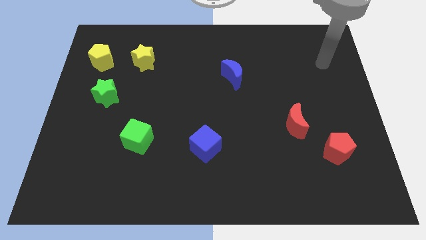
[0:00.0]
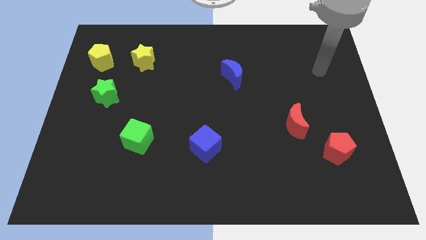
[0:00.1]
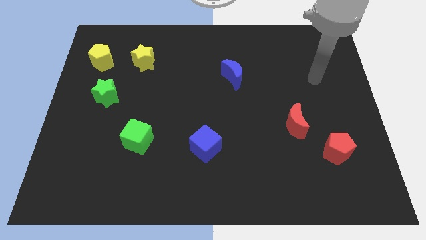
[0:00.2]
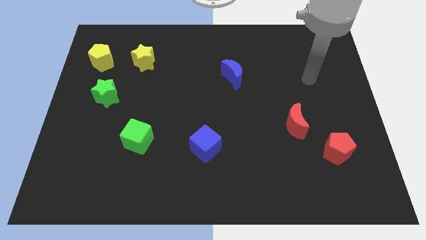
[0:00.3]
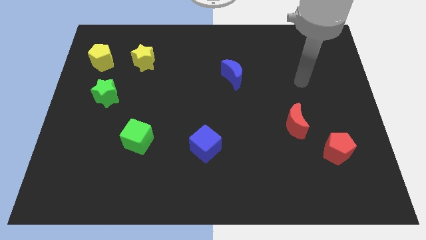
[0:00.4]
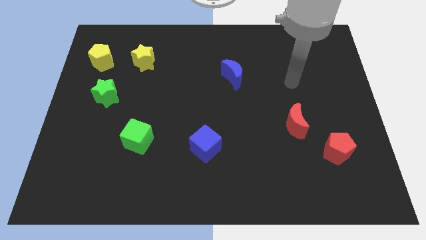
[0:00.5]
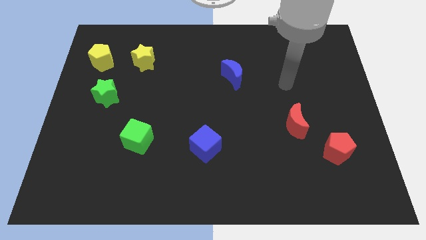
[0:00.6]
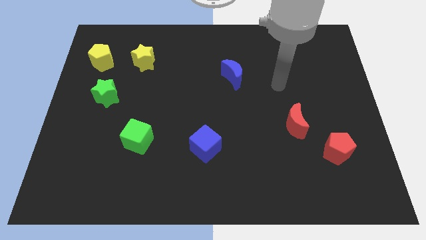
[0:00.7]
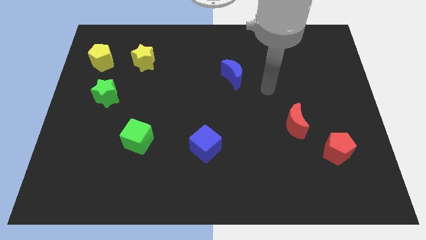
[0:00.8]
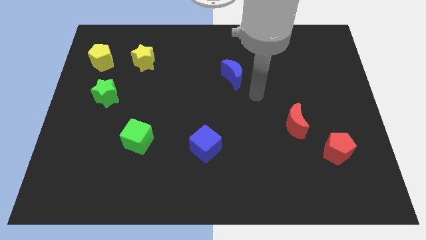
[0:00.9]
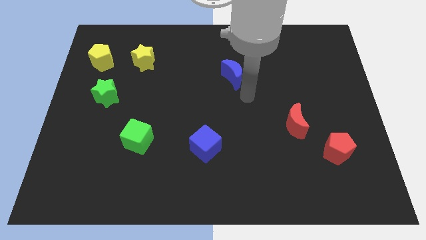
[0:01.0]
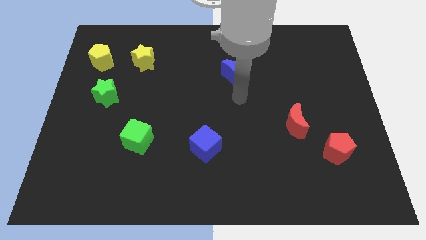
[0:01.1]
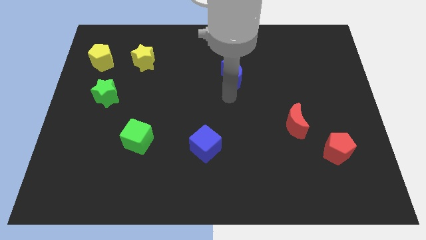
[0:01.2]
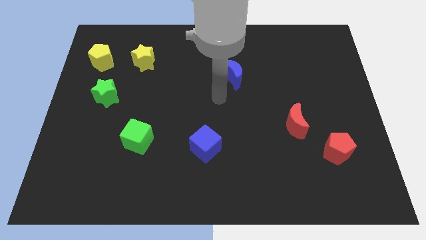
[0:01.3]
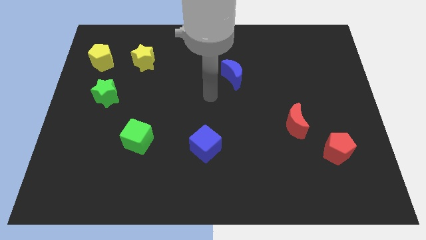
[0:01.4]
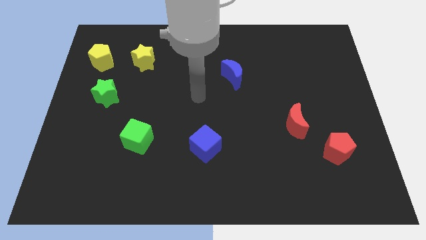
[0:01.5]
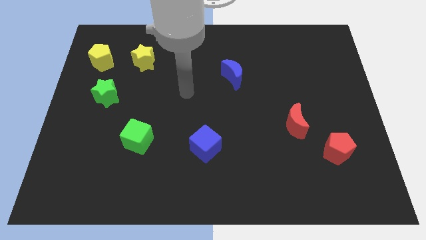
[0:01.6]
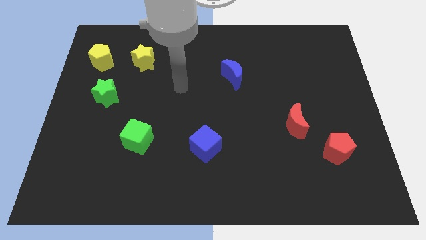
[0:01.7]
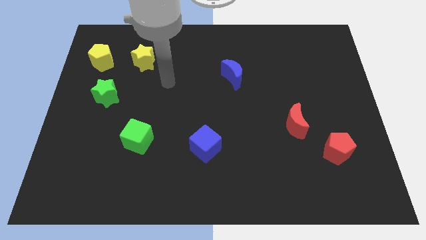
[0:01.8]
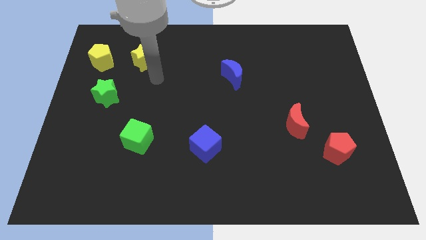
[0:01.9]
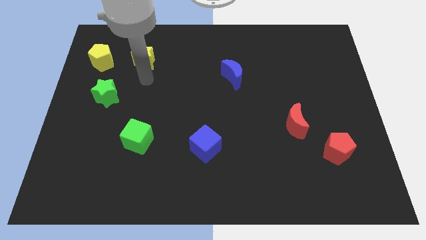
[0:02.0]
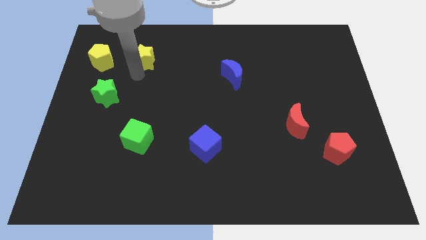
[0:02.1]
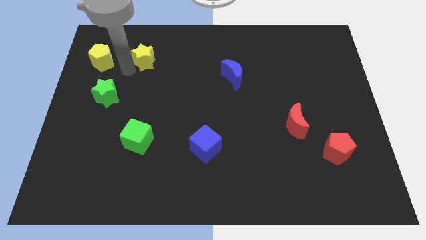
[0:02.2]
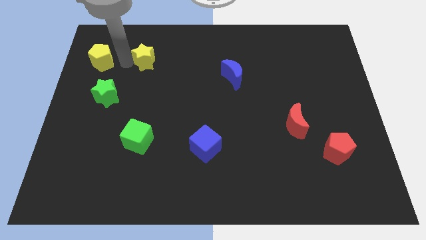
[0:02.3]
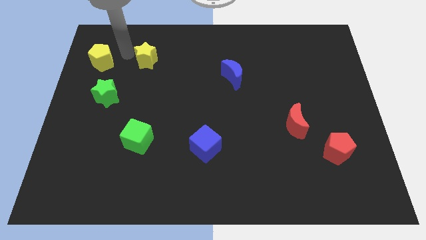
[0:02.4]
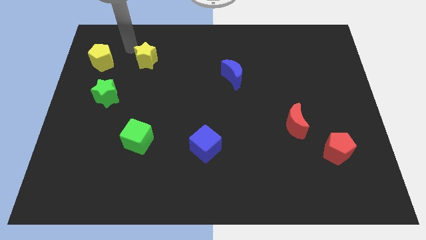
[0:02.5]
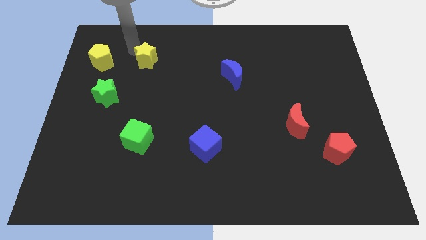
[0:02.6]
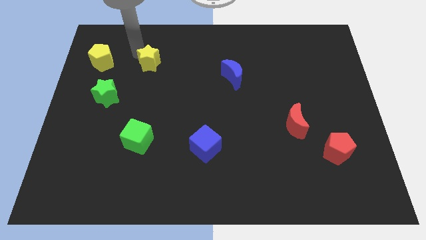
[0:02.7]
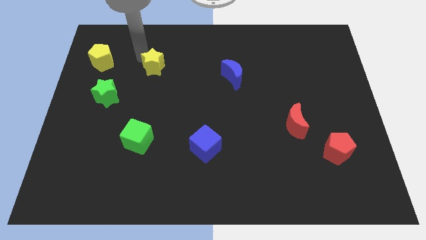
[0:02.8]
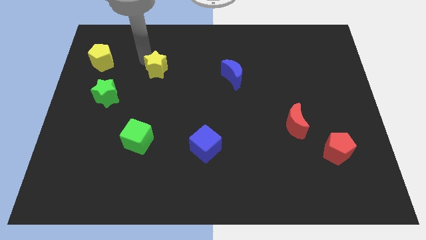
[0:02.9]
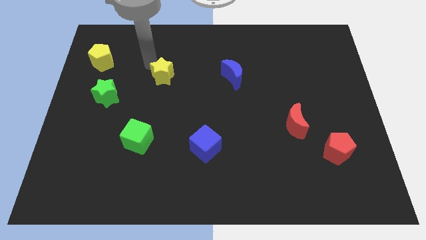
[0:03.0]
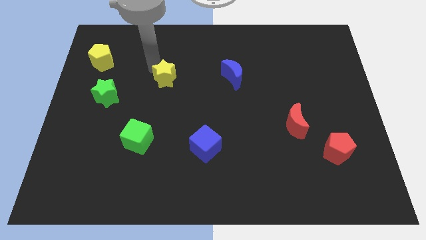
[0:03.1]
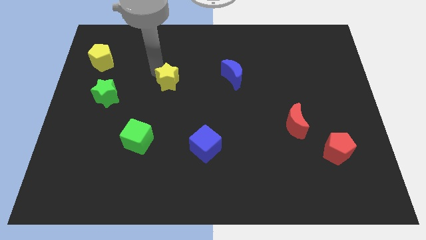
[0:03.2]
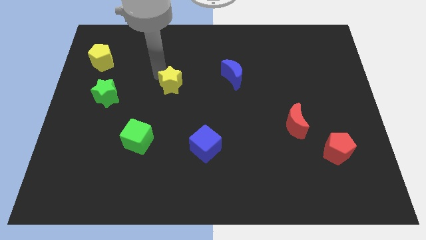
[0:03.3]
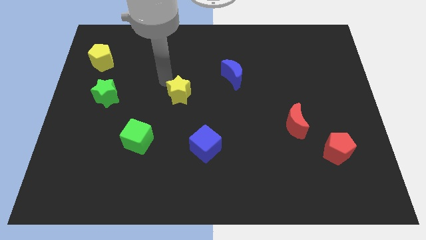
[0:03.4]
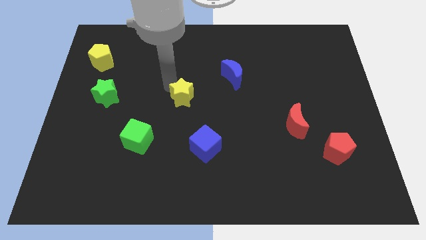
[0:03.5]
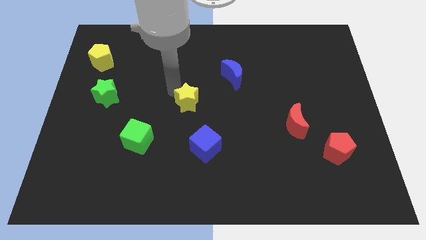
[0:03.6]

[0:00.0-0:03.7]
slide the yellow star above the blue cube

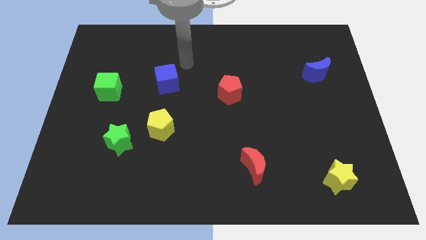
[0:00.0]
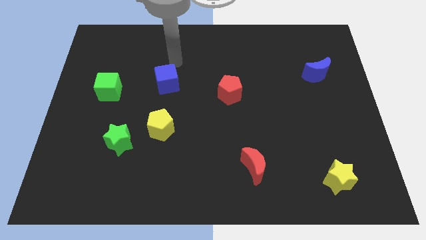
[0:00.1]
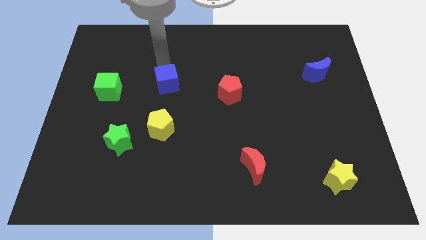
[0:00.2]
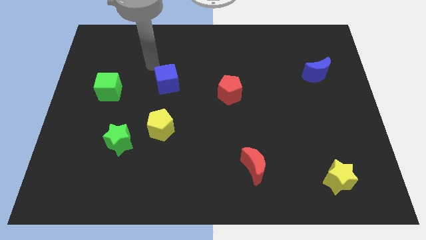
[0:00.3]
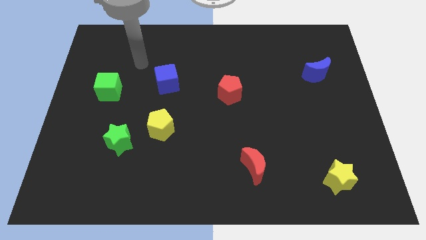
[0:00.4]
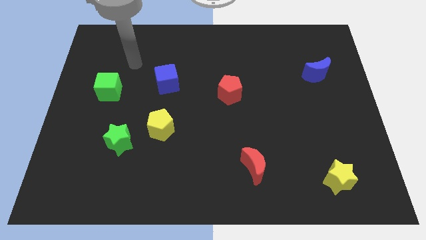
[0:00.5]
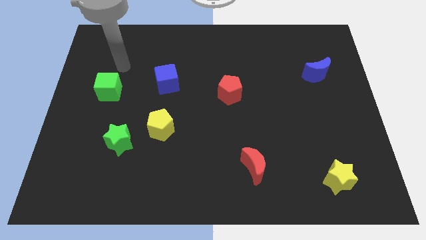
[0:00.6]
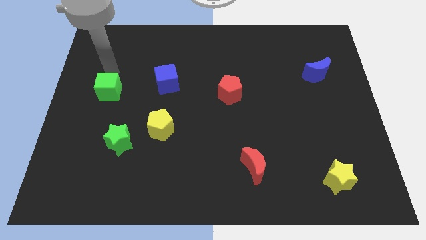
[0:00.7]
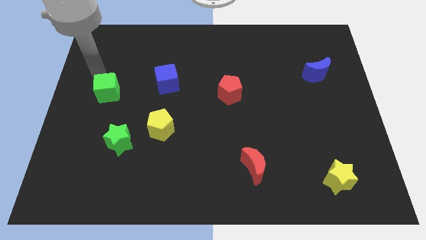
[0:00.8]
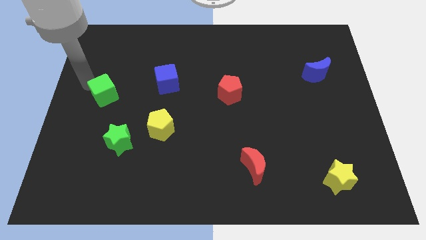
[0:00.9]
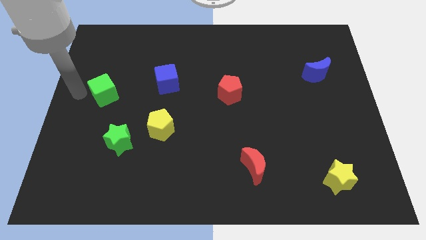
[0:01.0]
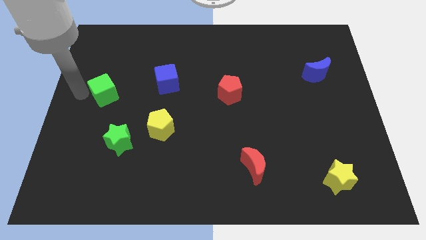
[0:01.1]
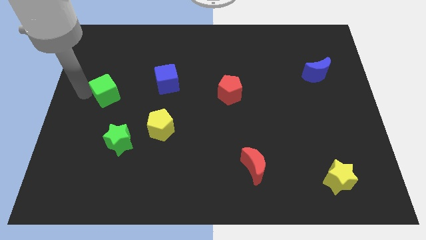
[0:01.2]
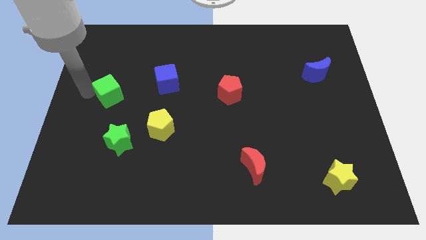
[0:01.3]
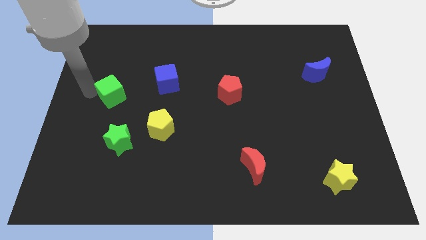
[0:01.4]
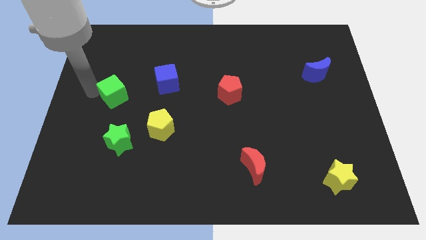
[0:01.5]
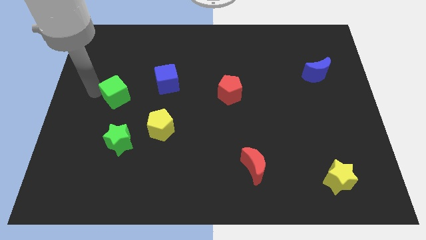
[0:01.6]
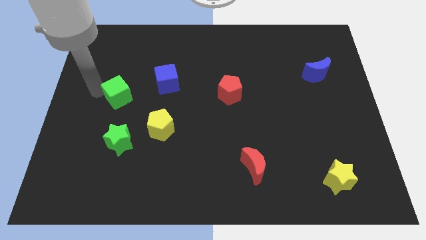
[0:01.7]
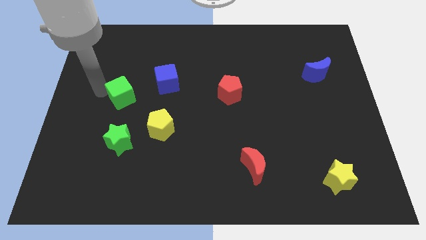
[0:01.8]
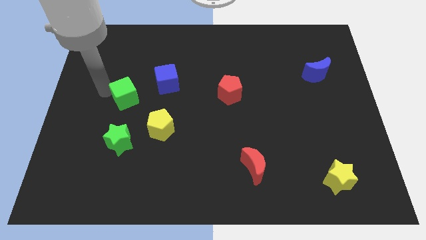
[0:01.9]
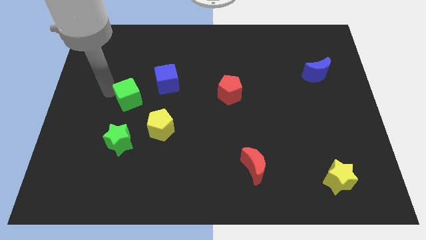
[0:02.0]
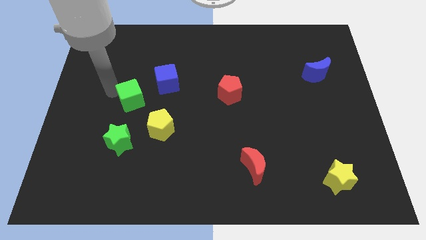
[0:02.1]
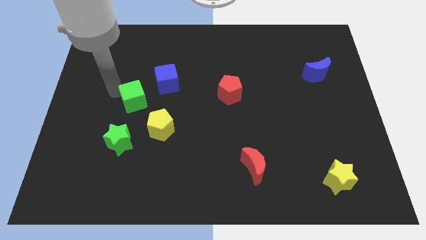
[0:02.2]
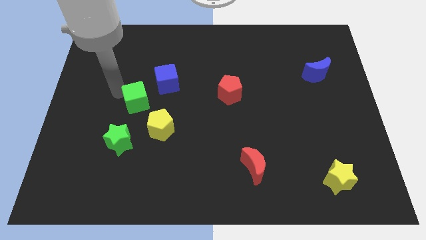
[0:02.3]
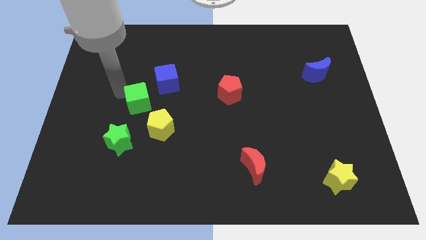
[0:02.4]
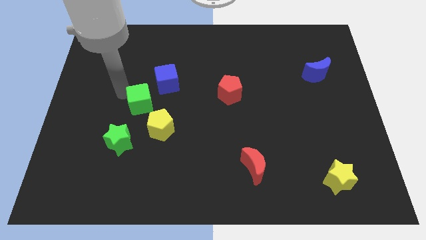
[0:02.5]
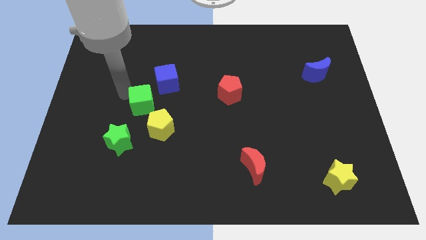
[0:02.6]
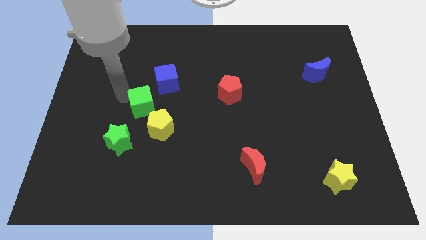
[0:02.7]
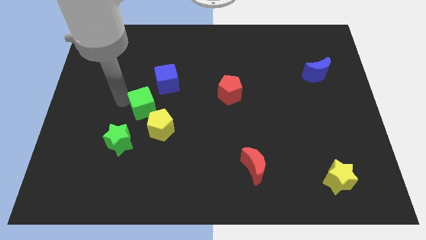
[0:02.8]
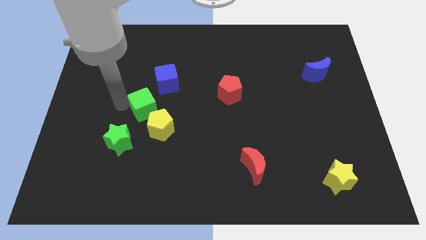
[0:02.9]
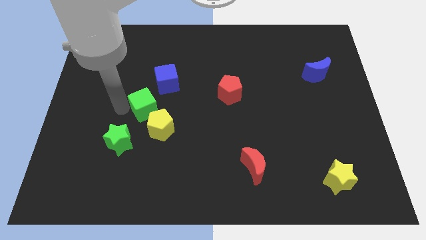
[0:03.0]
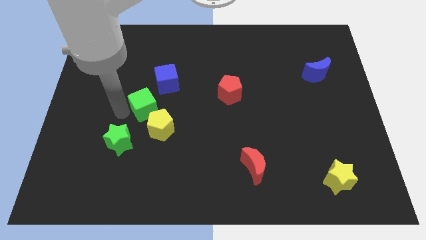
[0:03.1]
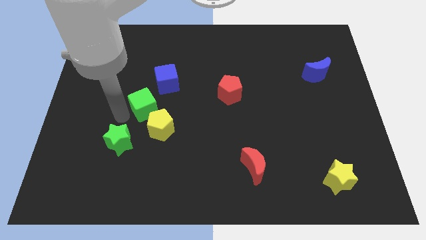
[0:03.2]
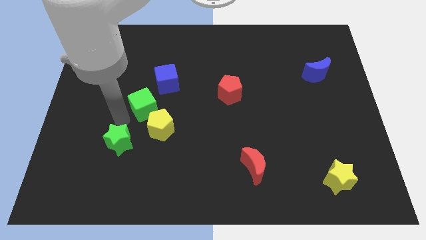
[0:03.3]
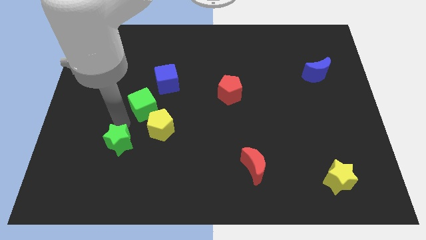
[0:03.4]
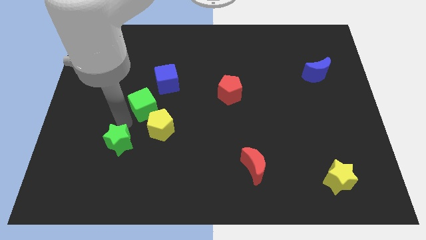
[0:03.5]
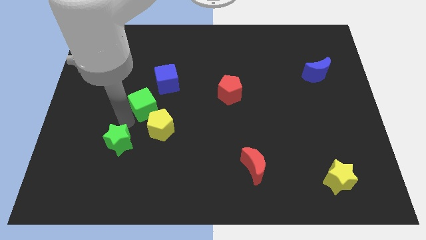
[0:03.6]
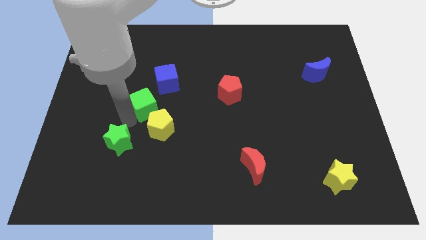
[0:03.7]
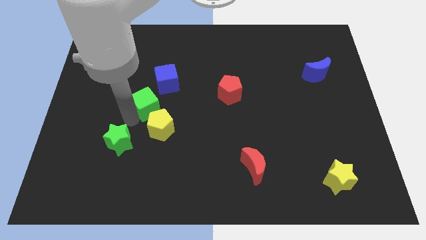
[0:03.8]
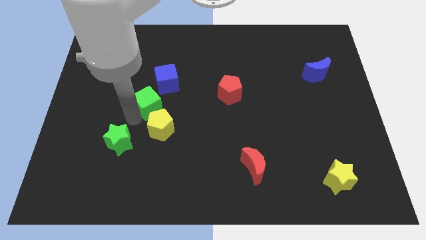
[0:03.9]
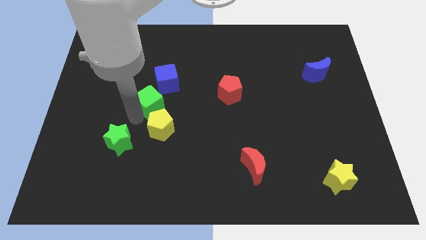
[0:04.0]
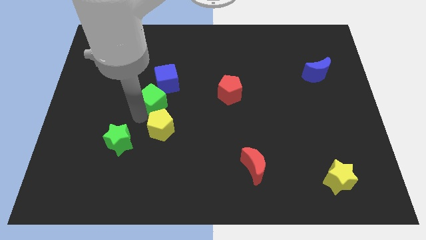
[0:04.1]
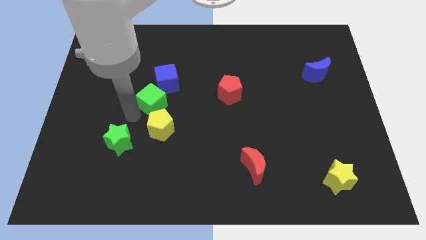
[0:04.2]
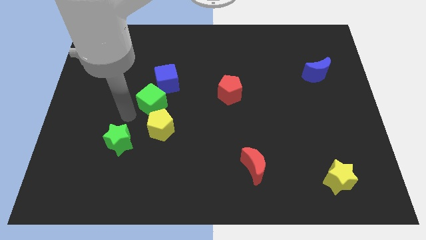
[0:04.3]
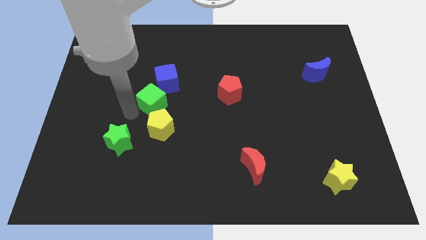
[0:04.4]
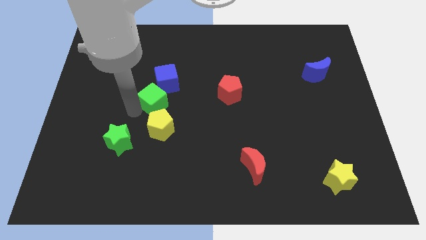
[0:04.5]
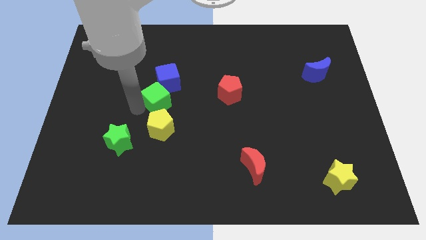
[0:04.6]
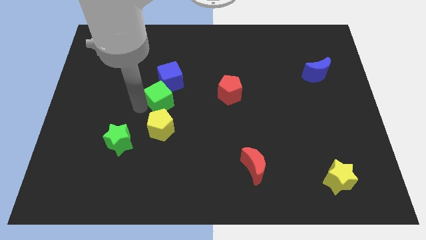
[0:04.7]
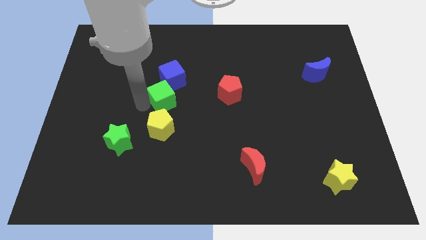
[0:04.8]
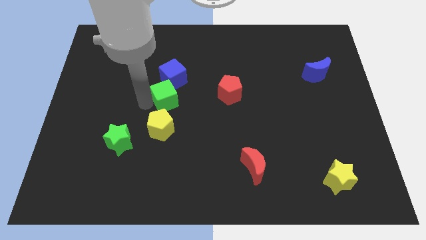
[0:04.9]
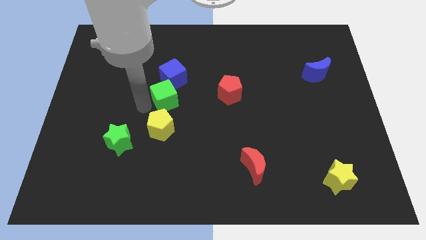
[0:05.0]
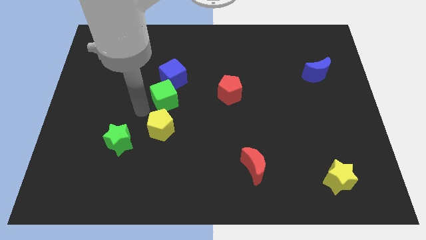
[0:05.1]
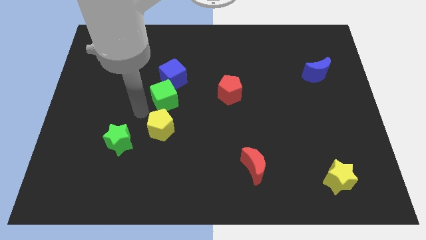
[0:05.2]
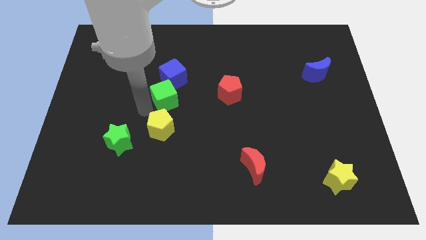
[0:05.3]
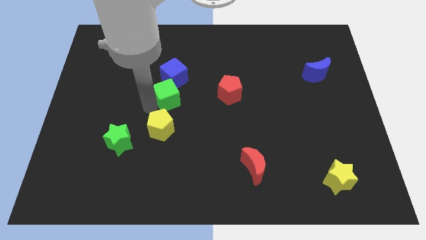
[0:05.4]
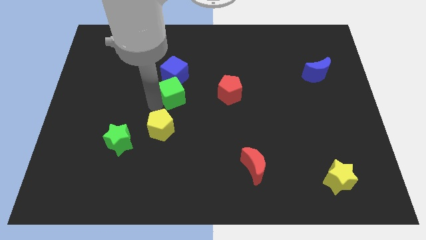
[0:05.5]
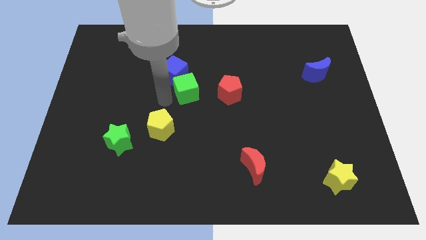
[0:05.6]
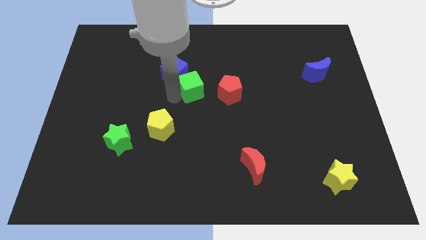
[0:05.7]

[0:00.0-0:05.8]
move the green cube just right of the blue cube
